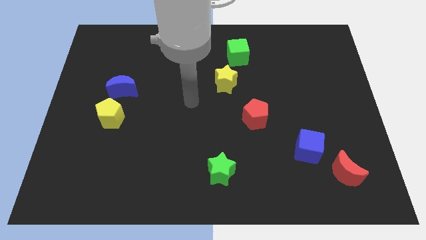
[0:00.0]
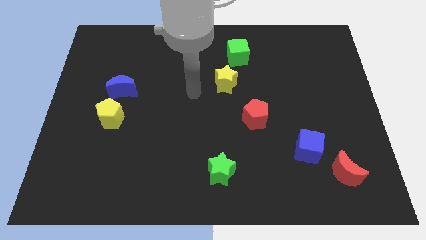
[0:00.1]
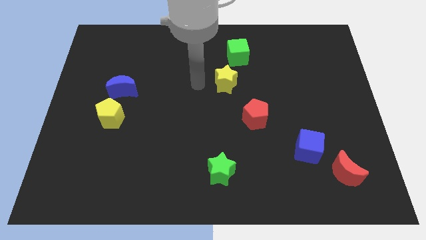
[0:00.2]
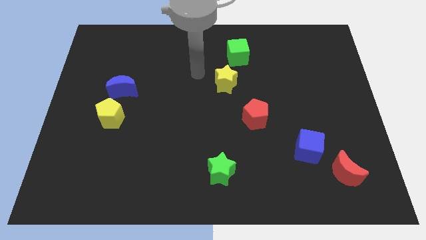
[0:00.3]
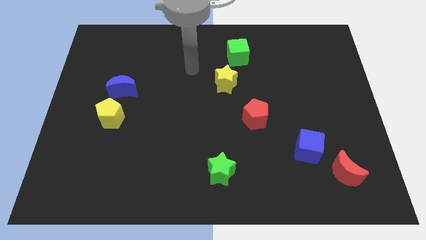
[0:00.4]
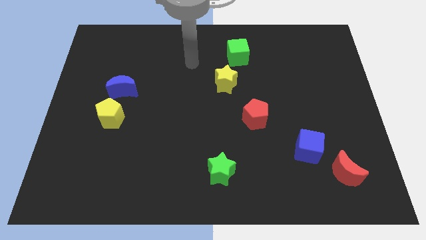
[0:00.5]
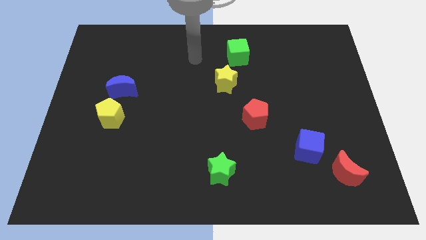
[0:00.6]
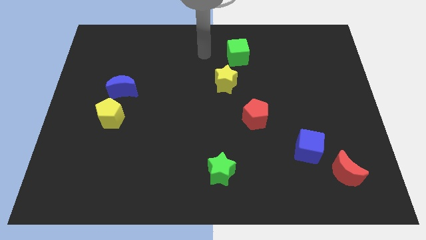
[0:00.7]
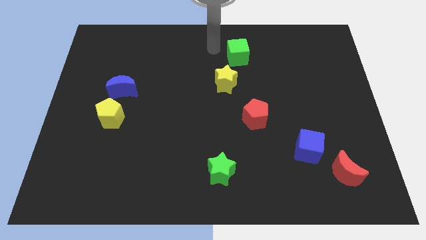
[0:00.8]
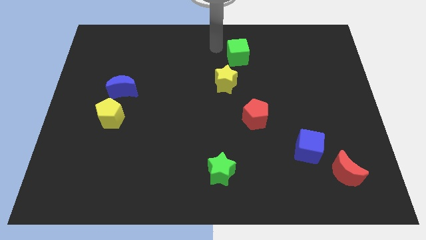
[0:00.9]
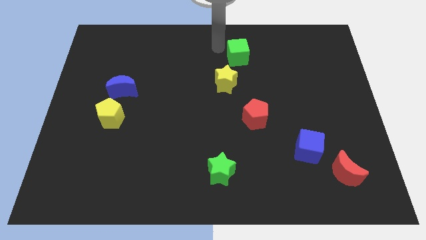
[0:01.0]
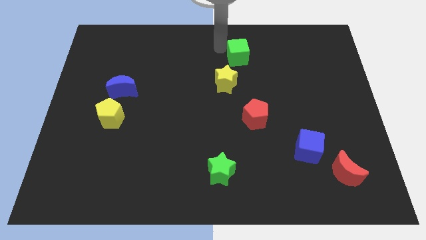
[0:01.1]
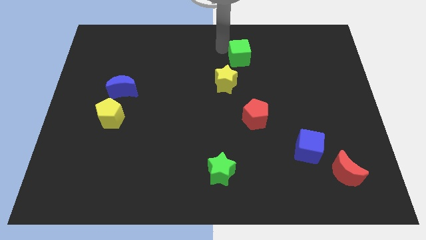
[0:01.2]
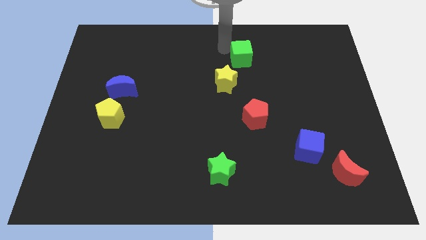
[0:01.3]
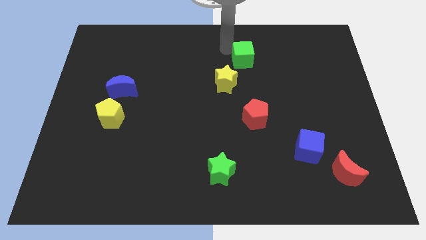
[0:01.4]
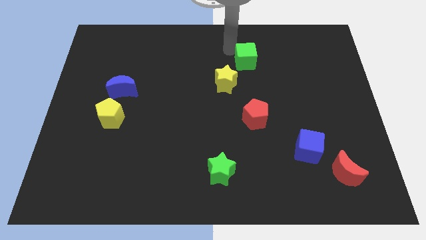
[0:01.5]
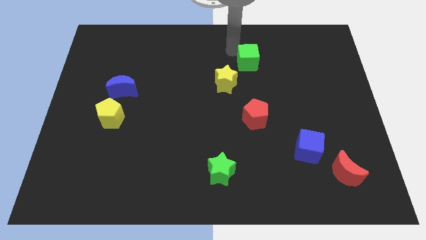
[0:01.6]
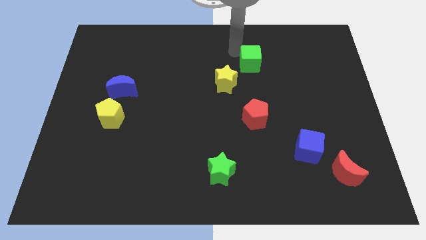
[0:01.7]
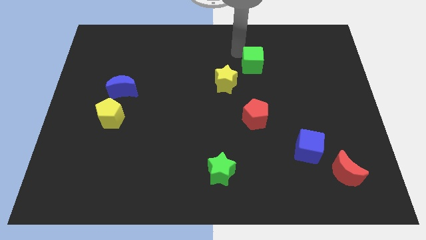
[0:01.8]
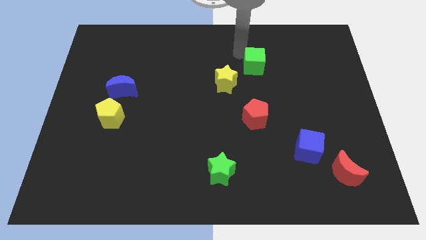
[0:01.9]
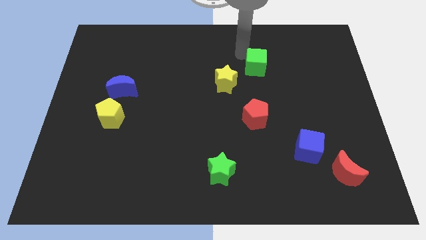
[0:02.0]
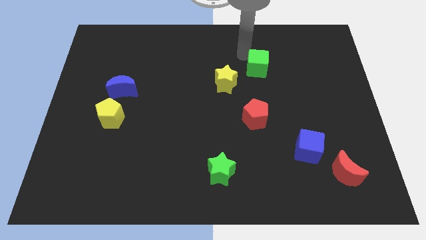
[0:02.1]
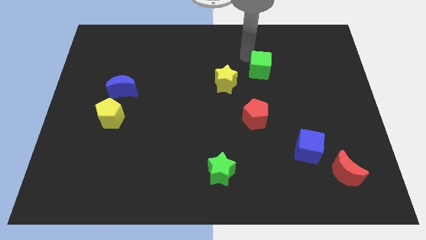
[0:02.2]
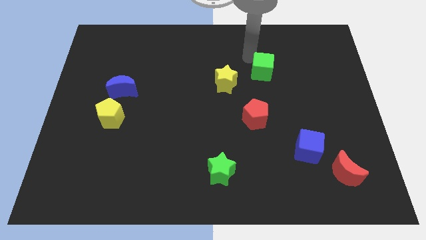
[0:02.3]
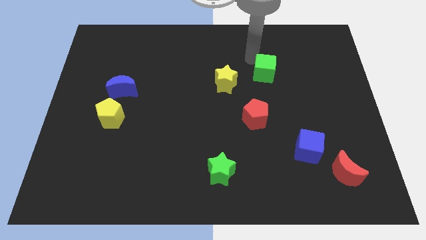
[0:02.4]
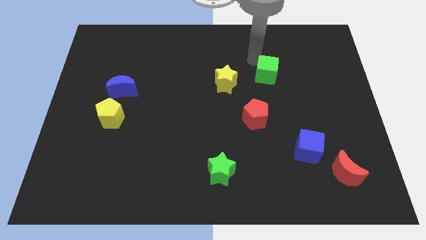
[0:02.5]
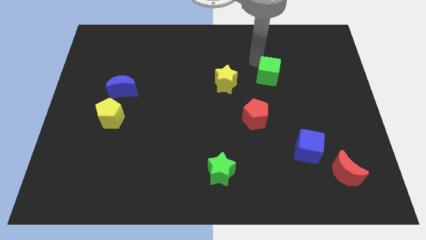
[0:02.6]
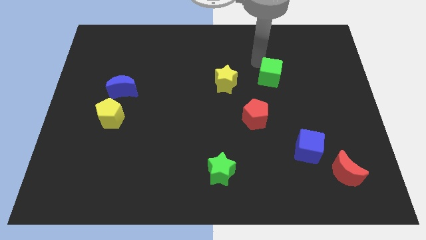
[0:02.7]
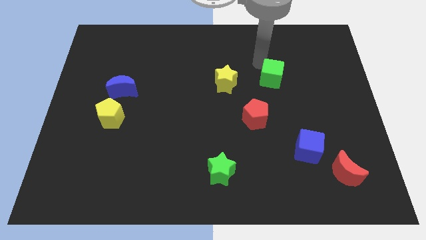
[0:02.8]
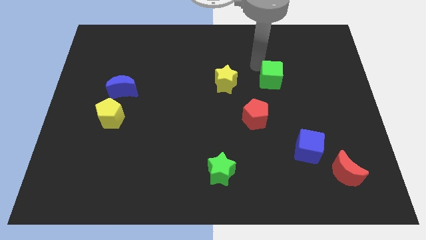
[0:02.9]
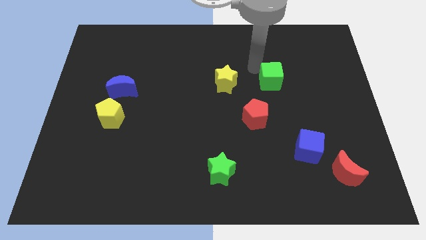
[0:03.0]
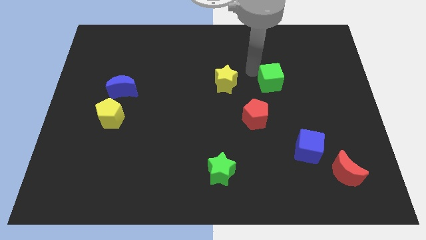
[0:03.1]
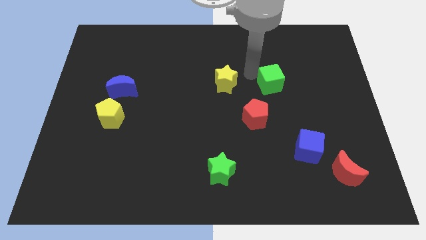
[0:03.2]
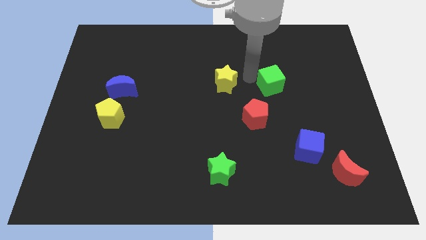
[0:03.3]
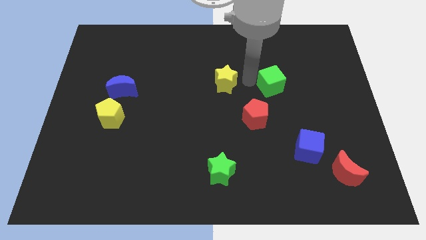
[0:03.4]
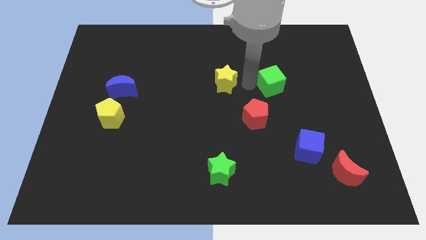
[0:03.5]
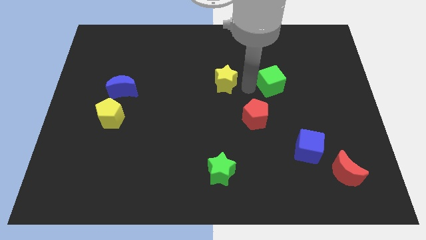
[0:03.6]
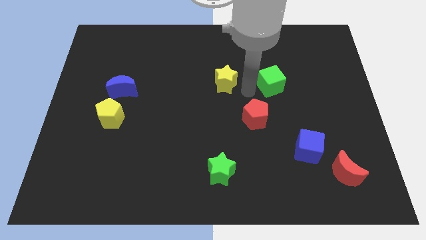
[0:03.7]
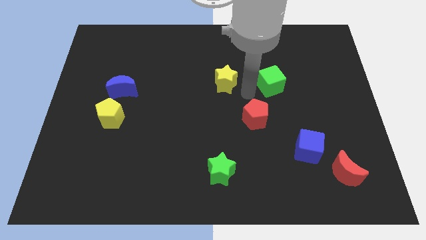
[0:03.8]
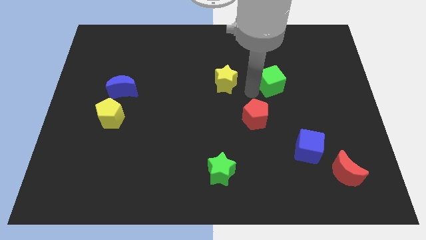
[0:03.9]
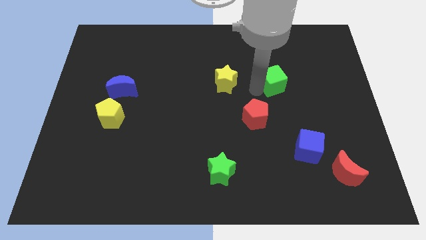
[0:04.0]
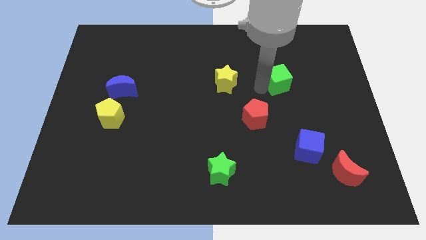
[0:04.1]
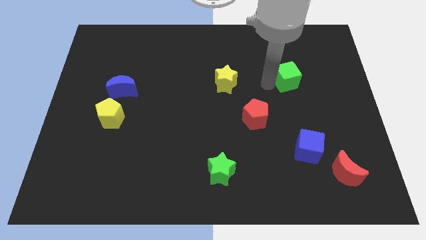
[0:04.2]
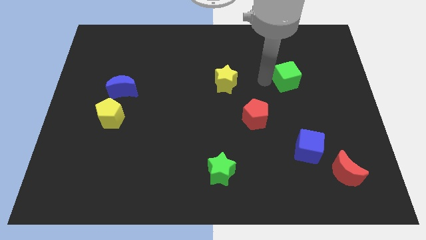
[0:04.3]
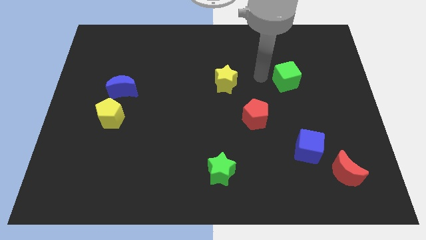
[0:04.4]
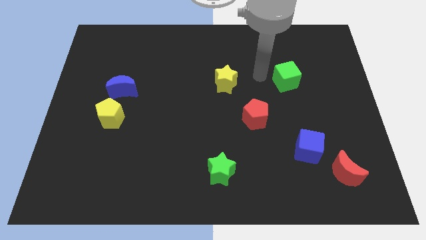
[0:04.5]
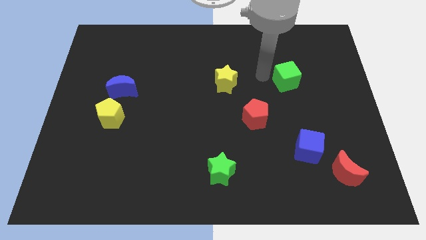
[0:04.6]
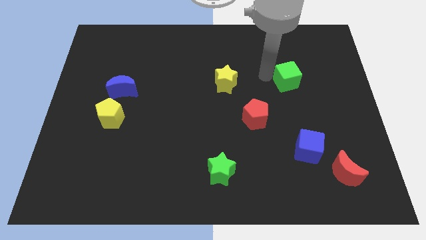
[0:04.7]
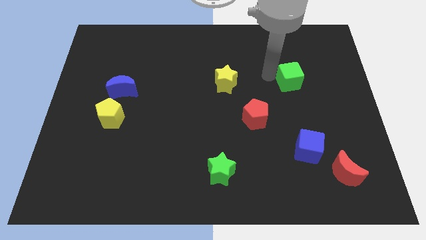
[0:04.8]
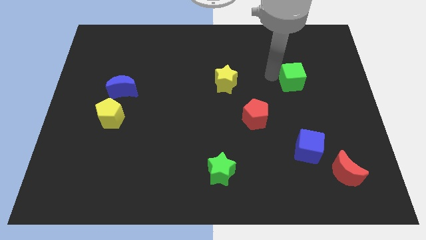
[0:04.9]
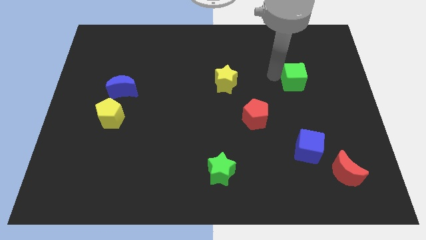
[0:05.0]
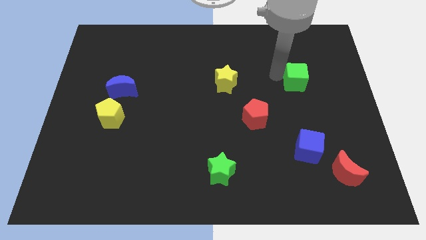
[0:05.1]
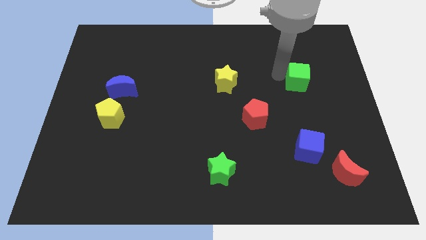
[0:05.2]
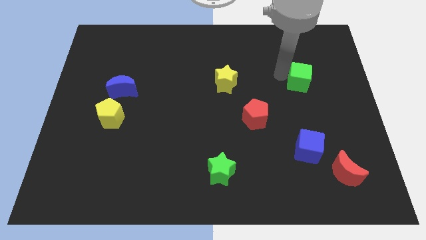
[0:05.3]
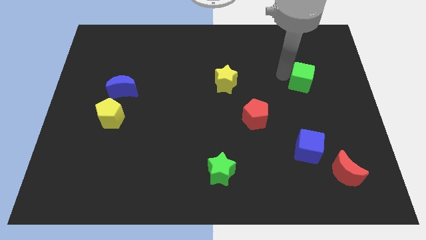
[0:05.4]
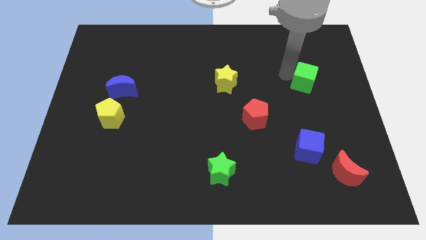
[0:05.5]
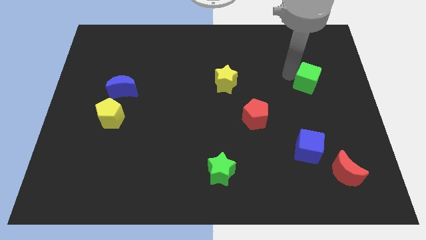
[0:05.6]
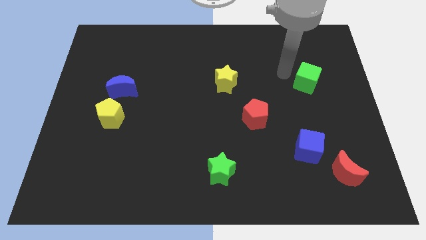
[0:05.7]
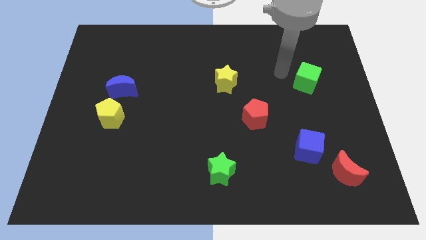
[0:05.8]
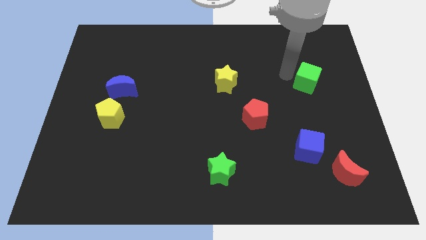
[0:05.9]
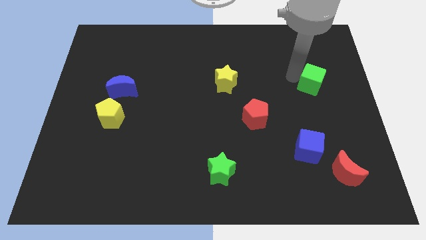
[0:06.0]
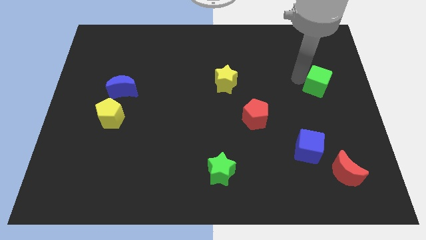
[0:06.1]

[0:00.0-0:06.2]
move the green cube to the right side of the board
